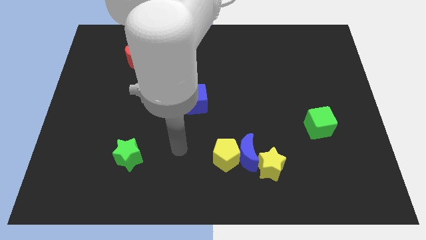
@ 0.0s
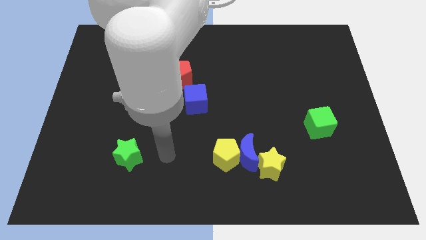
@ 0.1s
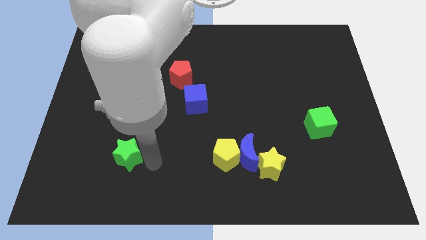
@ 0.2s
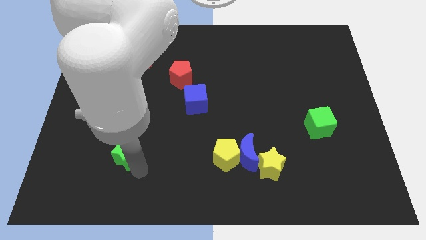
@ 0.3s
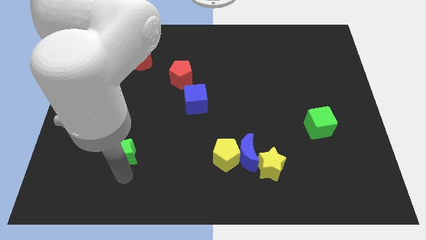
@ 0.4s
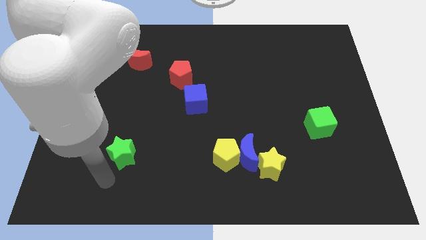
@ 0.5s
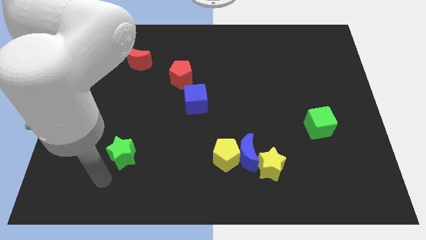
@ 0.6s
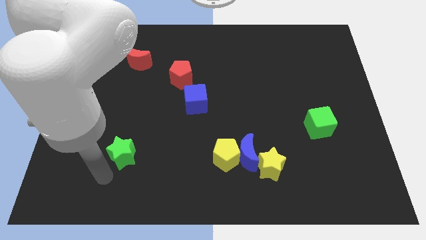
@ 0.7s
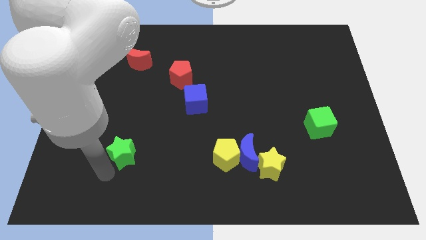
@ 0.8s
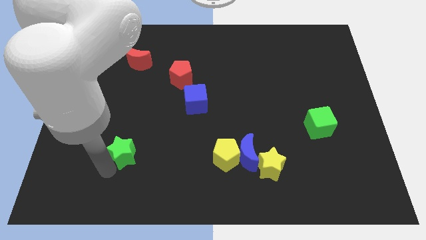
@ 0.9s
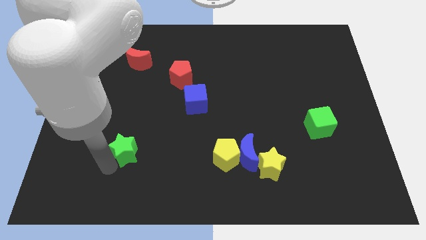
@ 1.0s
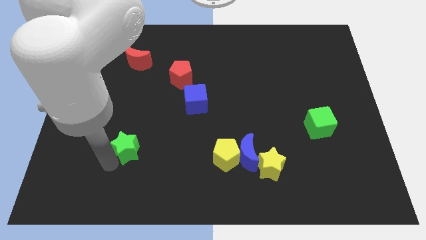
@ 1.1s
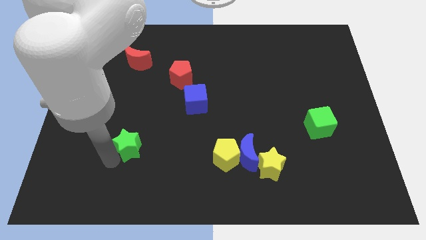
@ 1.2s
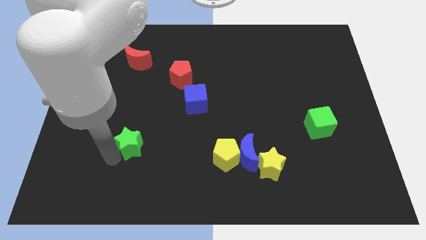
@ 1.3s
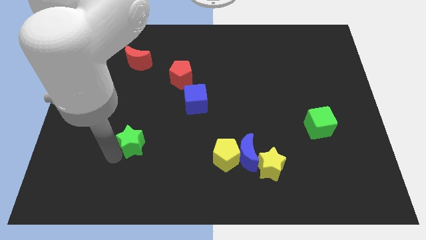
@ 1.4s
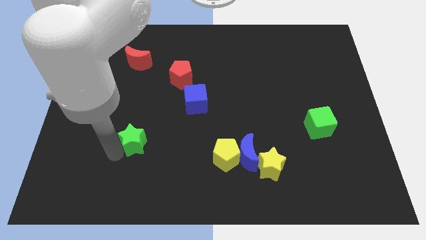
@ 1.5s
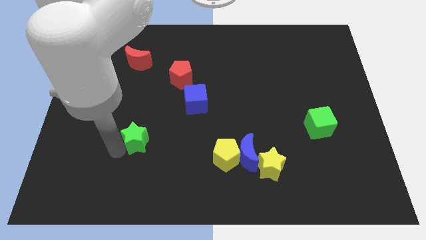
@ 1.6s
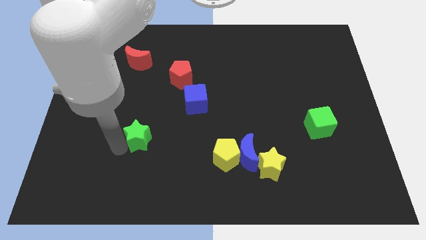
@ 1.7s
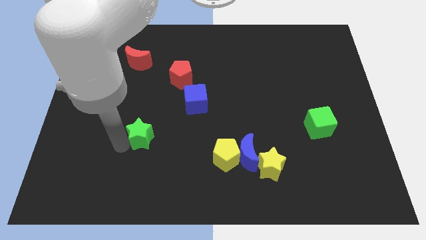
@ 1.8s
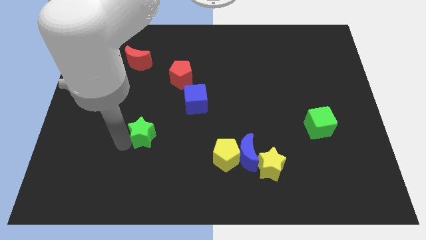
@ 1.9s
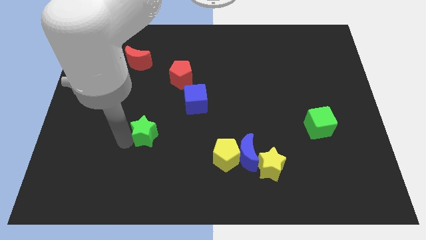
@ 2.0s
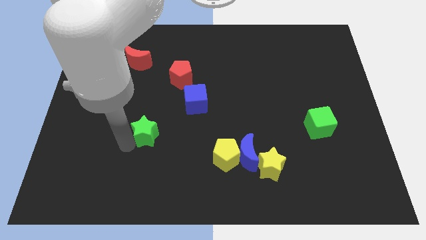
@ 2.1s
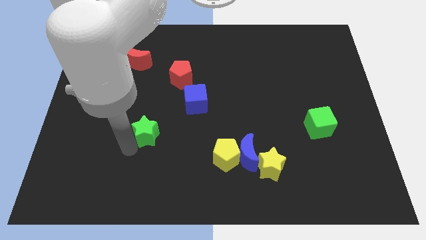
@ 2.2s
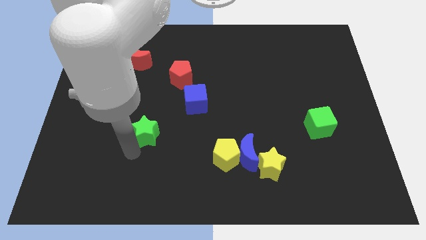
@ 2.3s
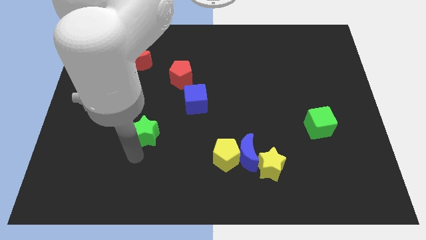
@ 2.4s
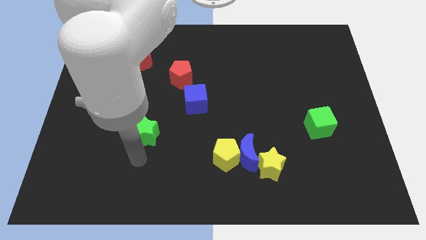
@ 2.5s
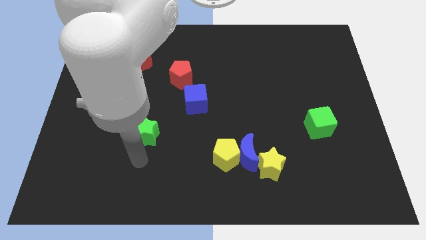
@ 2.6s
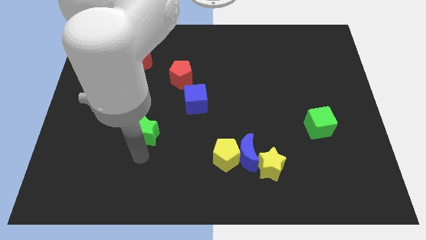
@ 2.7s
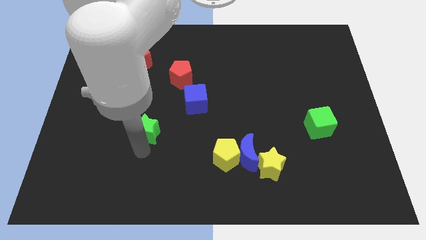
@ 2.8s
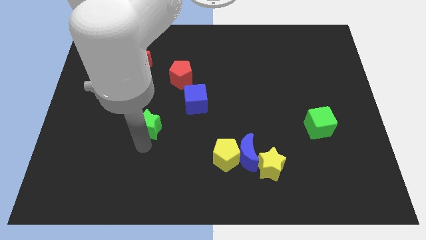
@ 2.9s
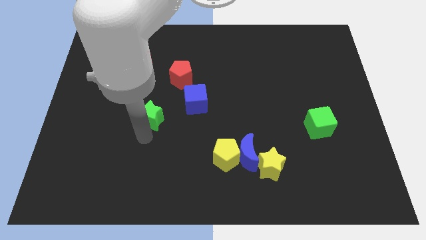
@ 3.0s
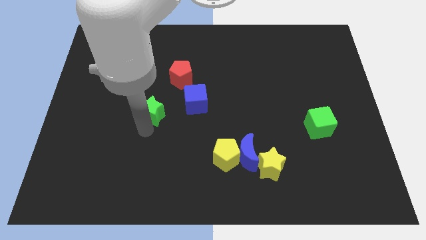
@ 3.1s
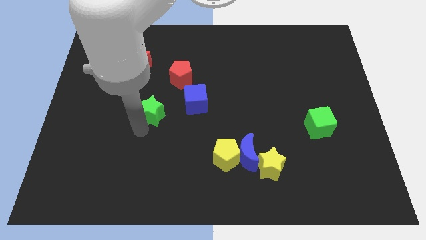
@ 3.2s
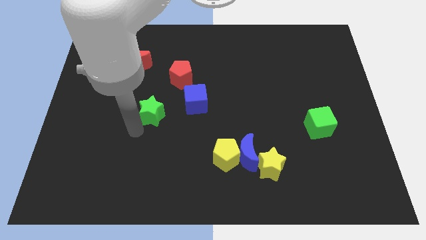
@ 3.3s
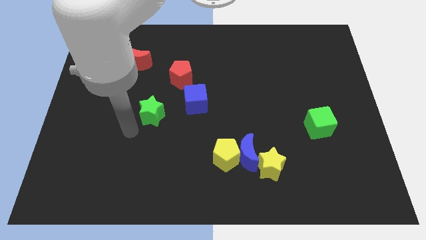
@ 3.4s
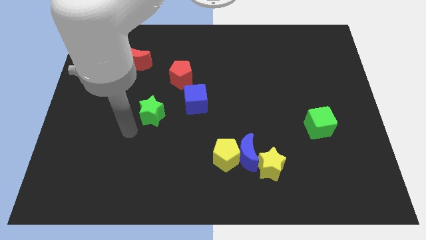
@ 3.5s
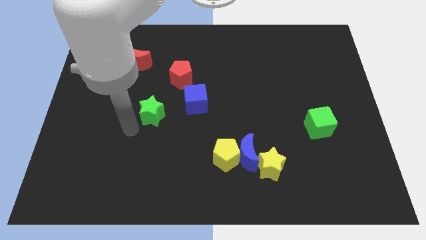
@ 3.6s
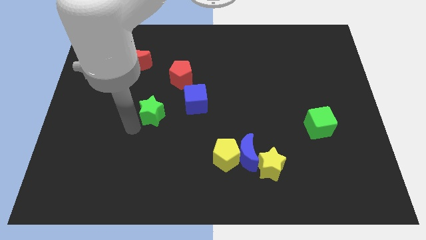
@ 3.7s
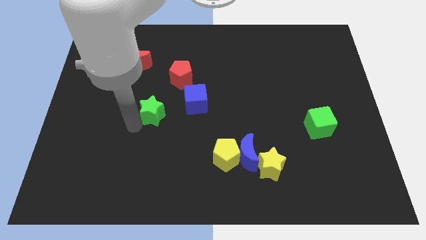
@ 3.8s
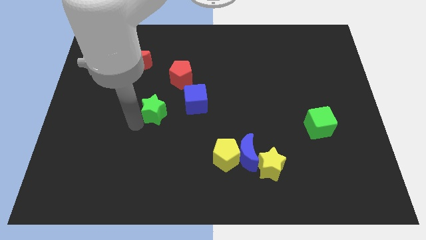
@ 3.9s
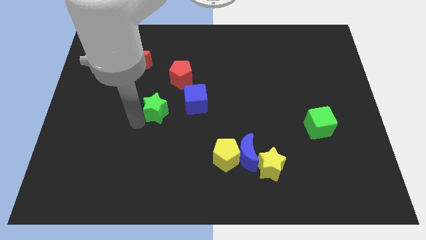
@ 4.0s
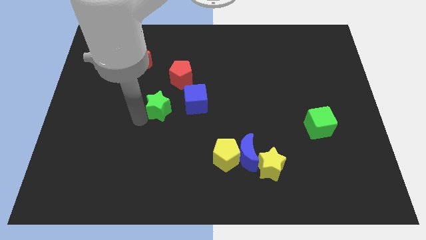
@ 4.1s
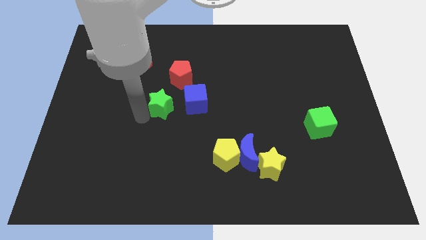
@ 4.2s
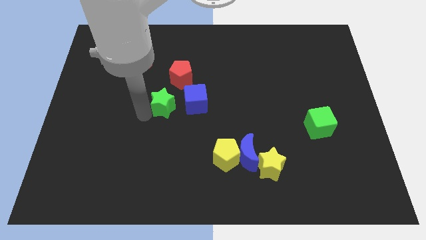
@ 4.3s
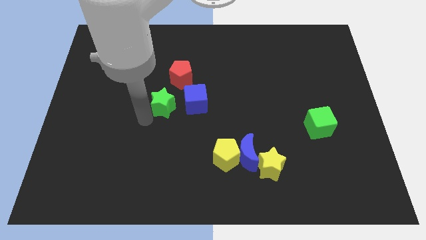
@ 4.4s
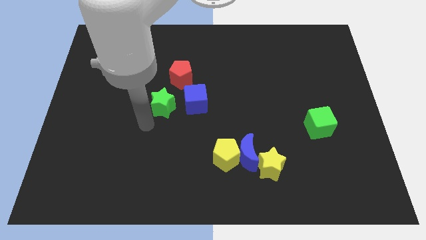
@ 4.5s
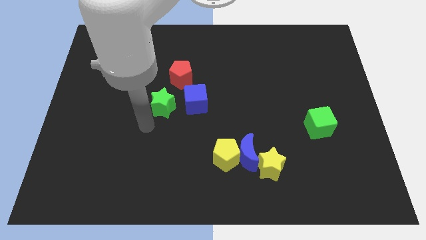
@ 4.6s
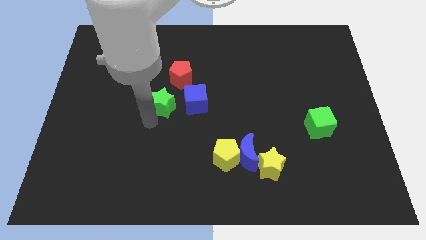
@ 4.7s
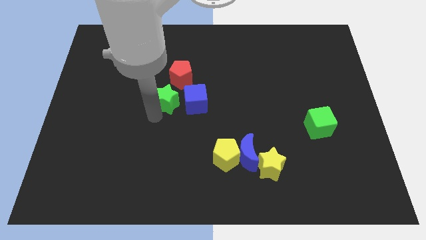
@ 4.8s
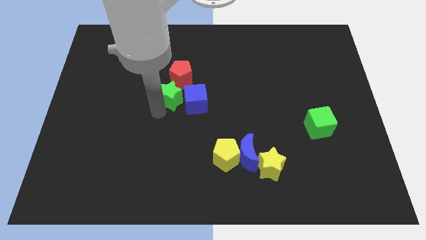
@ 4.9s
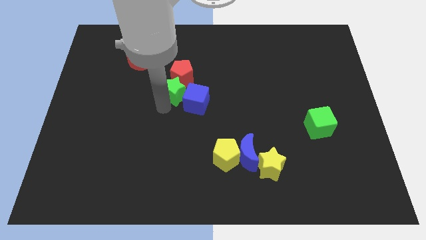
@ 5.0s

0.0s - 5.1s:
move the green star next to the red pentagon

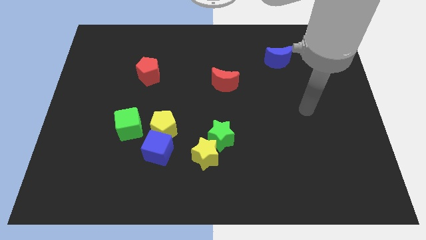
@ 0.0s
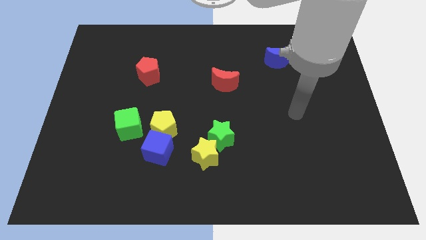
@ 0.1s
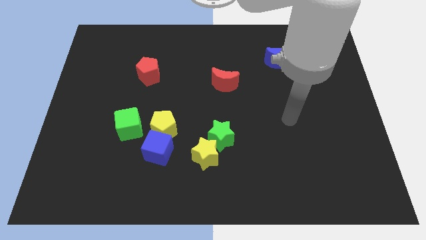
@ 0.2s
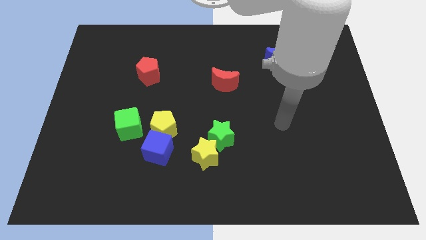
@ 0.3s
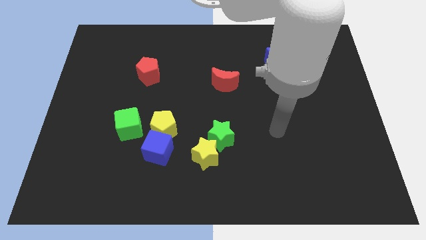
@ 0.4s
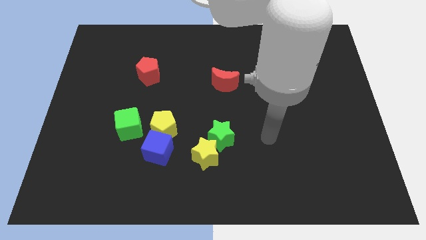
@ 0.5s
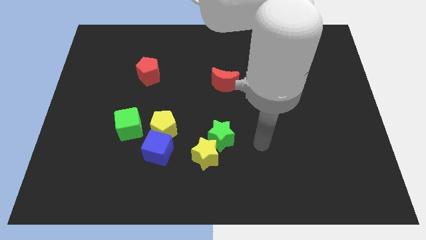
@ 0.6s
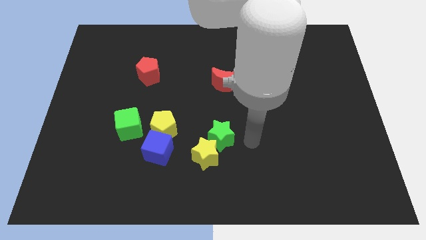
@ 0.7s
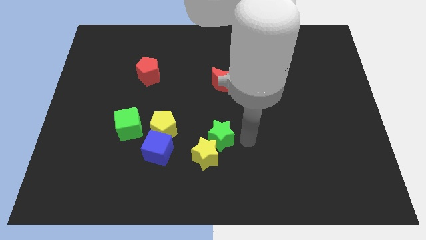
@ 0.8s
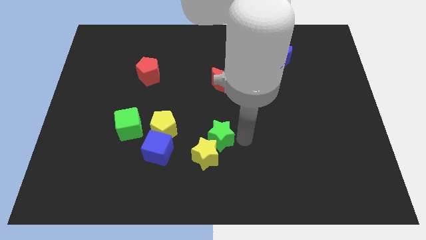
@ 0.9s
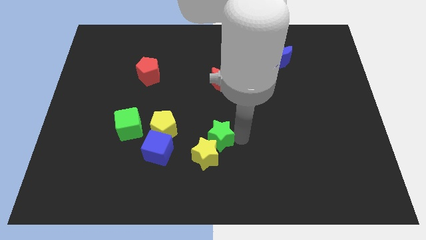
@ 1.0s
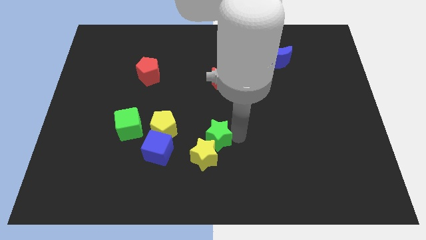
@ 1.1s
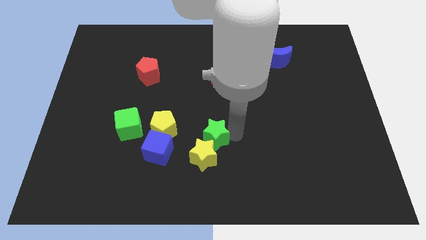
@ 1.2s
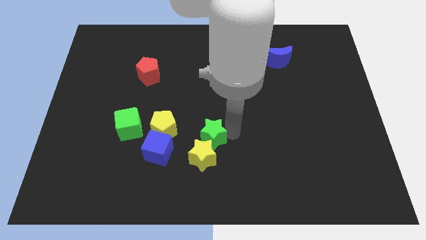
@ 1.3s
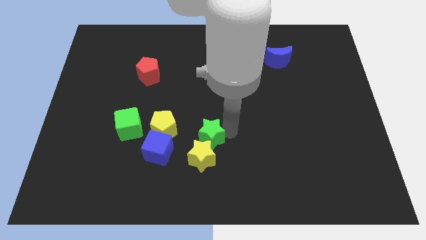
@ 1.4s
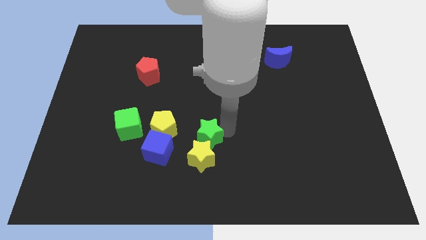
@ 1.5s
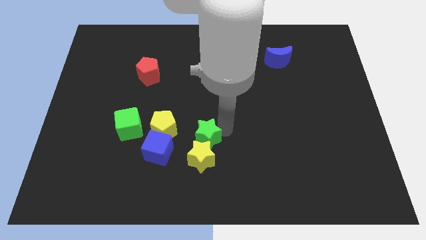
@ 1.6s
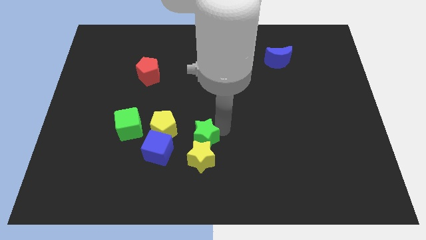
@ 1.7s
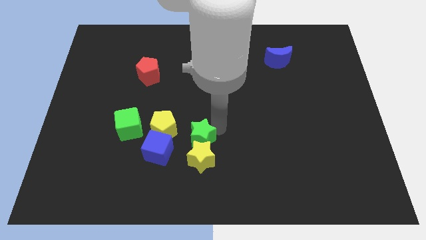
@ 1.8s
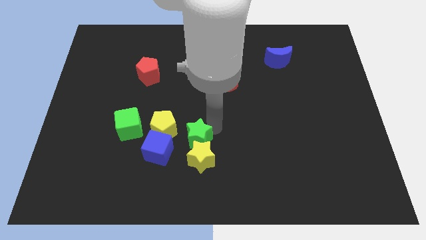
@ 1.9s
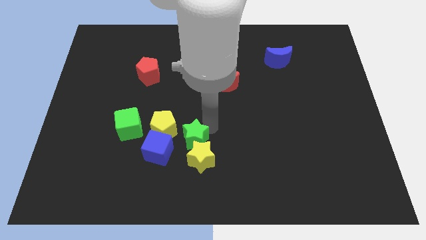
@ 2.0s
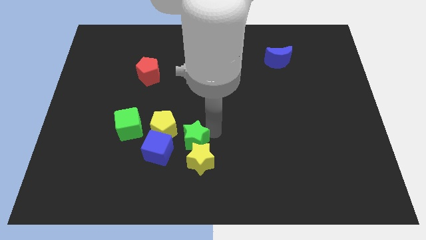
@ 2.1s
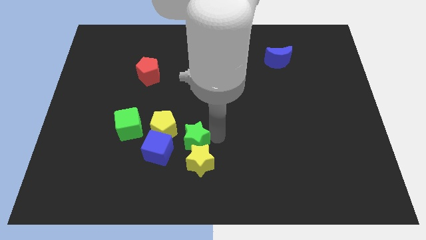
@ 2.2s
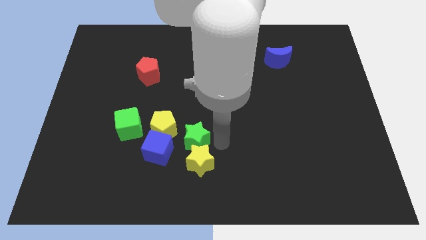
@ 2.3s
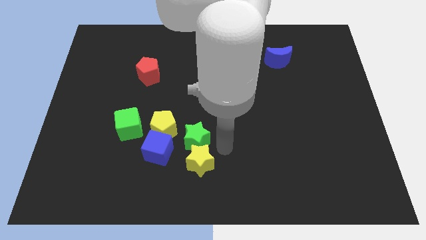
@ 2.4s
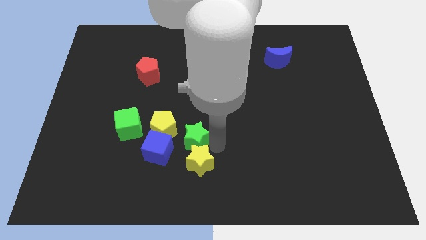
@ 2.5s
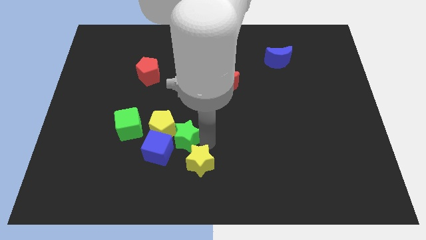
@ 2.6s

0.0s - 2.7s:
slide the green star next to the yellow pentagon
